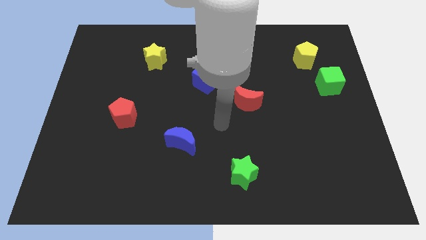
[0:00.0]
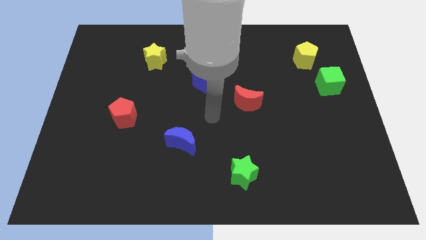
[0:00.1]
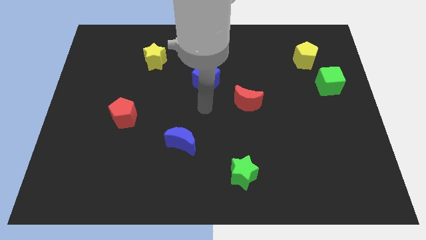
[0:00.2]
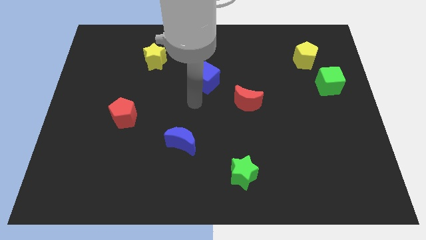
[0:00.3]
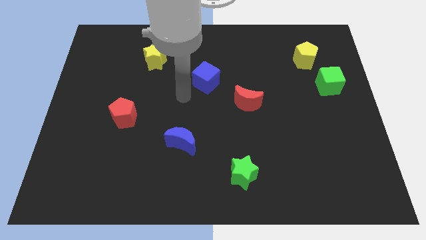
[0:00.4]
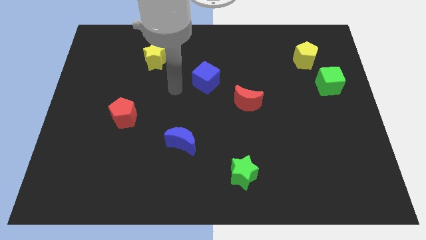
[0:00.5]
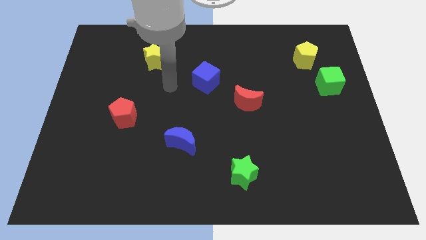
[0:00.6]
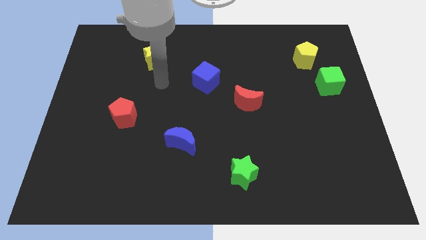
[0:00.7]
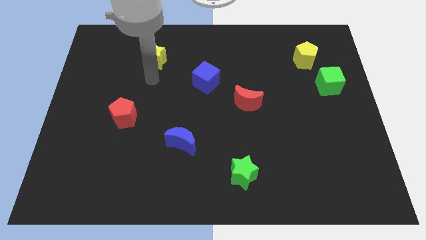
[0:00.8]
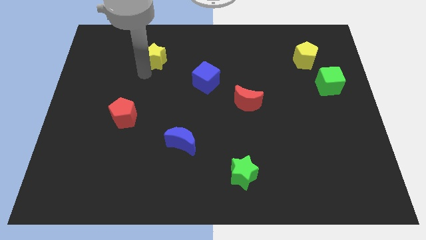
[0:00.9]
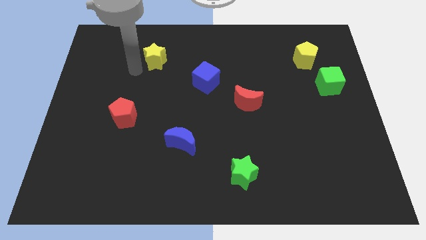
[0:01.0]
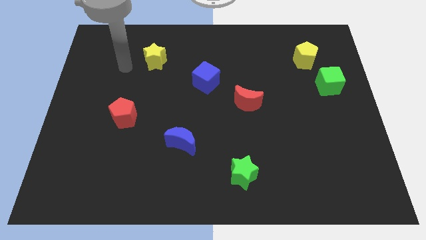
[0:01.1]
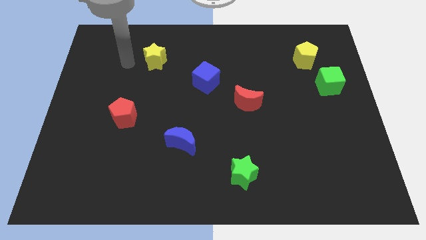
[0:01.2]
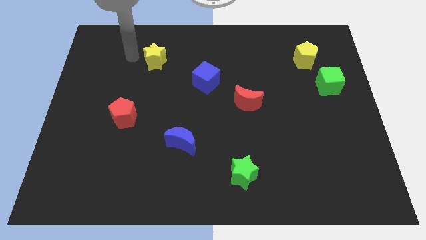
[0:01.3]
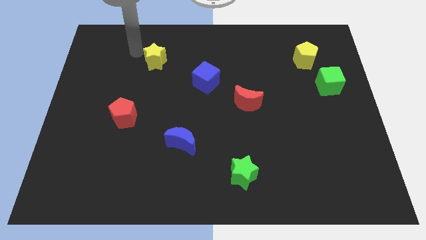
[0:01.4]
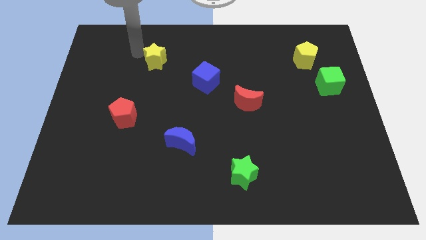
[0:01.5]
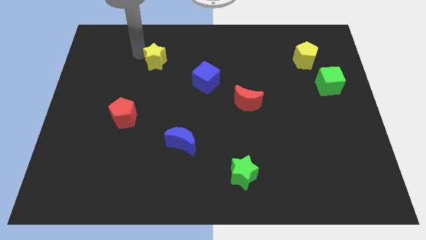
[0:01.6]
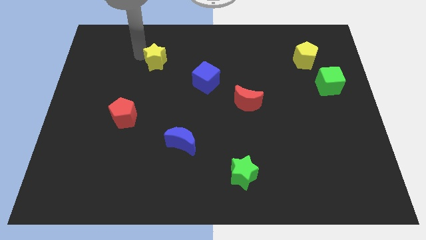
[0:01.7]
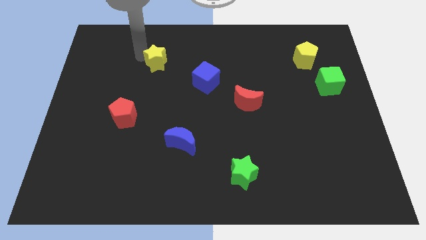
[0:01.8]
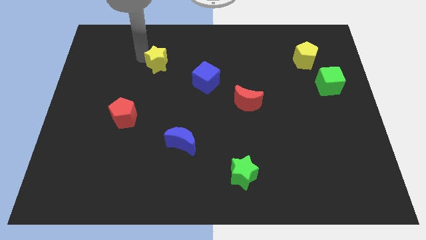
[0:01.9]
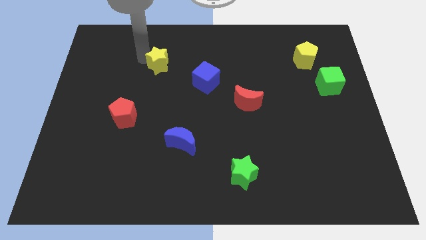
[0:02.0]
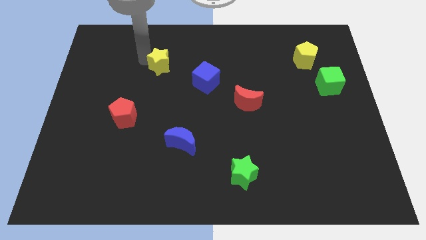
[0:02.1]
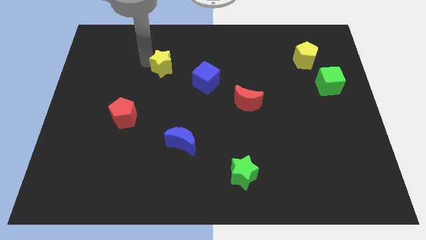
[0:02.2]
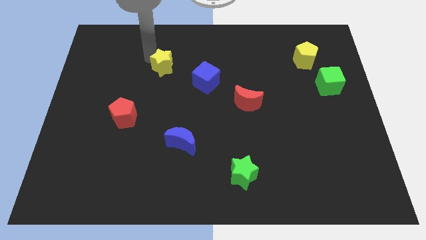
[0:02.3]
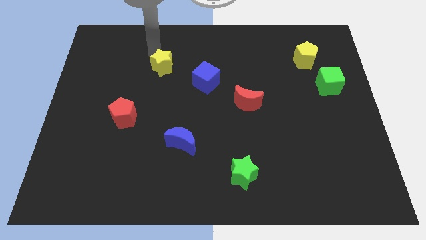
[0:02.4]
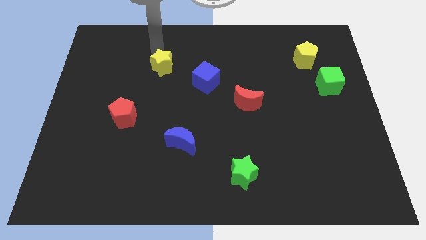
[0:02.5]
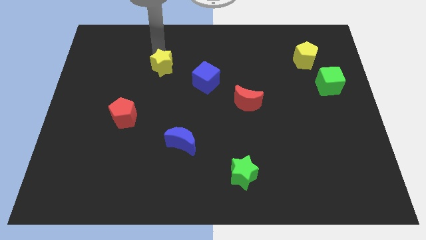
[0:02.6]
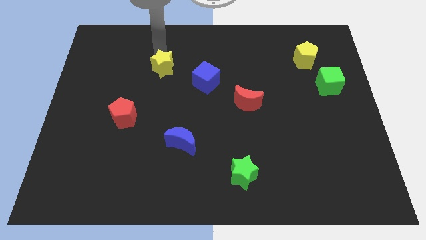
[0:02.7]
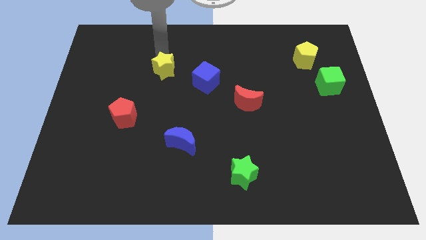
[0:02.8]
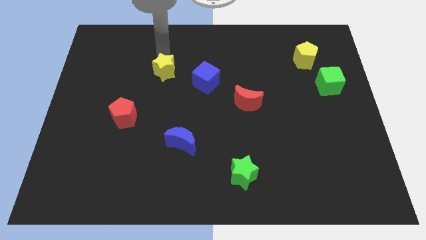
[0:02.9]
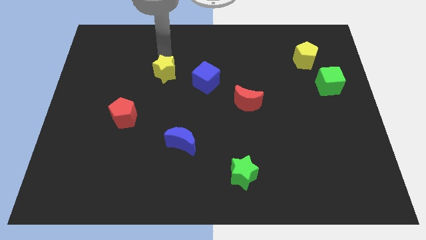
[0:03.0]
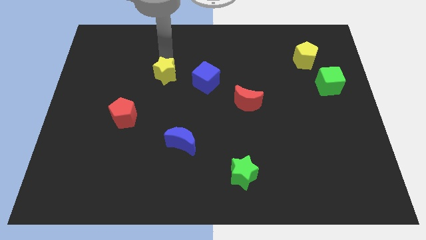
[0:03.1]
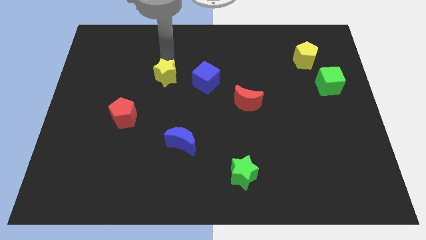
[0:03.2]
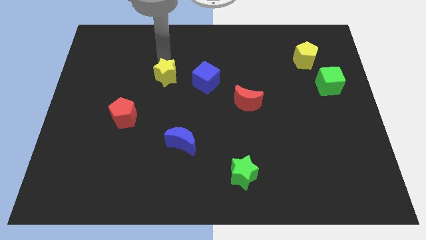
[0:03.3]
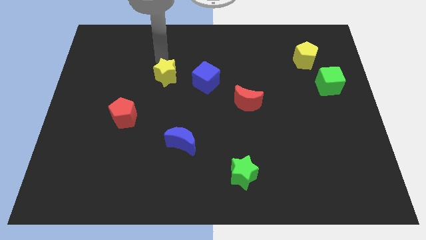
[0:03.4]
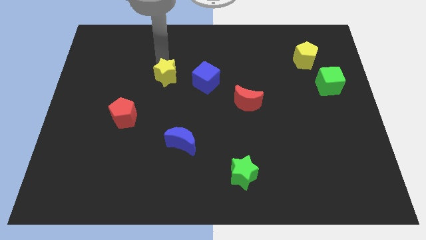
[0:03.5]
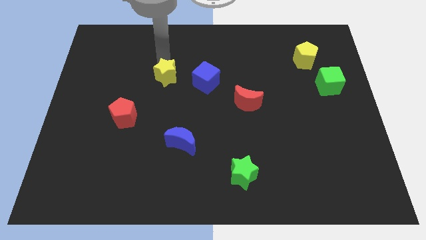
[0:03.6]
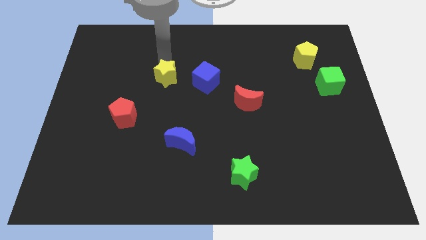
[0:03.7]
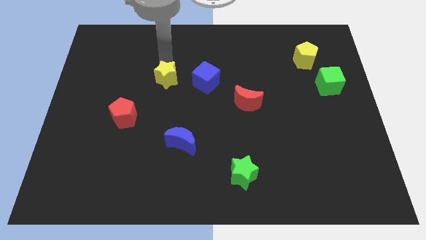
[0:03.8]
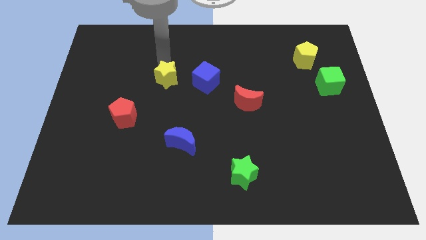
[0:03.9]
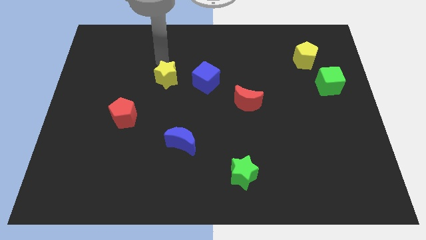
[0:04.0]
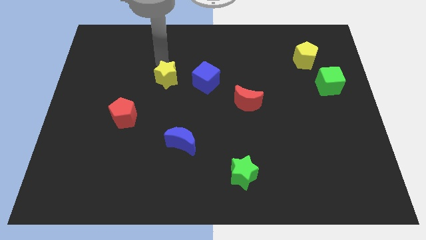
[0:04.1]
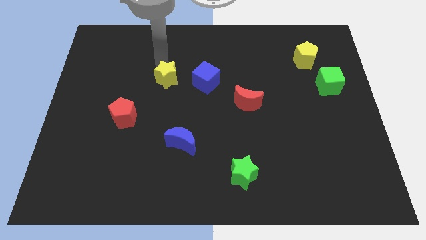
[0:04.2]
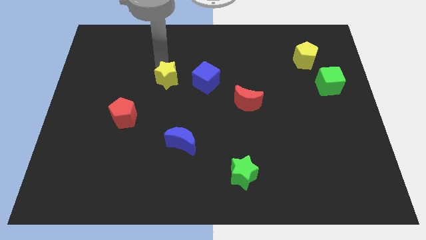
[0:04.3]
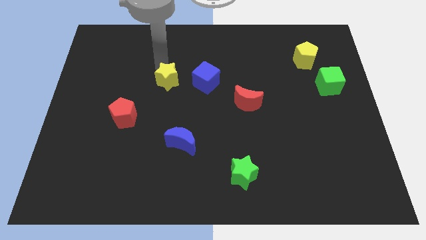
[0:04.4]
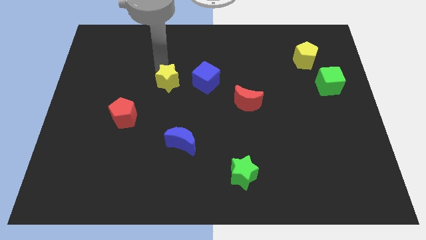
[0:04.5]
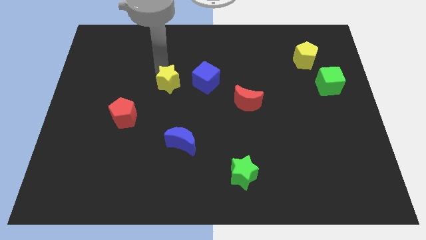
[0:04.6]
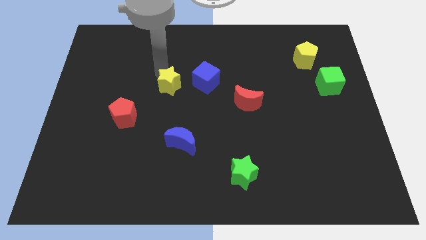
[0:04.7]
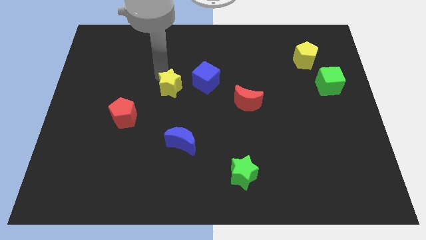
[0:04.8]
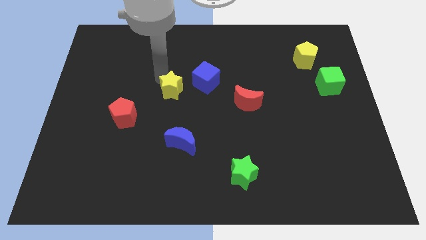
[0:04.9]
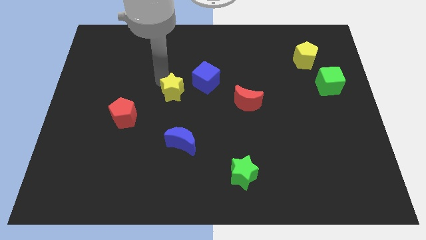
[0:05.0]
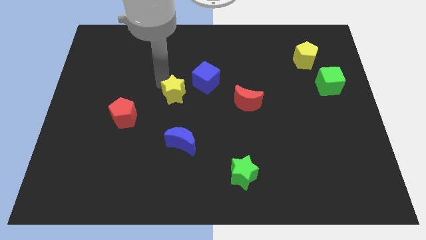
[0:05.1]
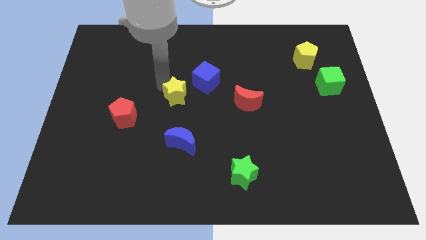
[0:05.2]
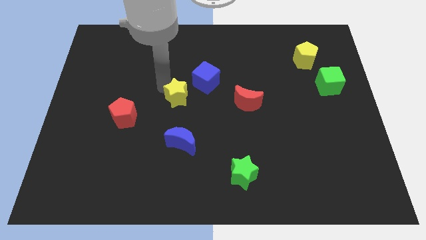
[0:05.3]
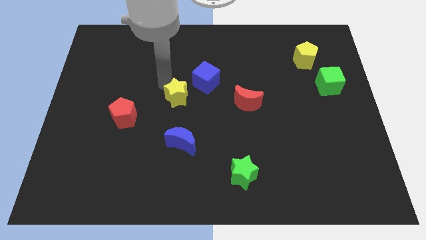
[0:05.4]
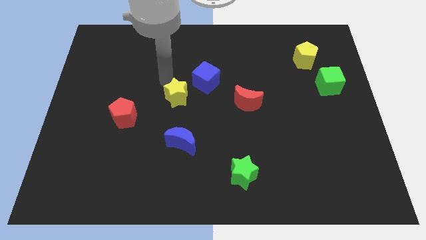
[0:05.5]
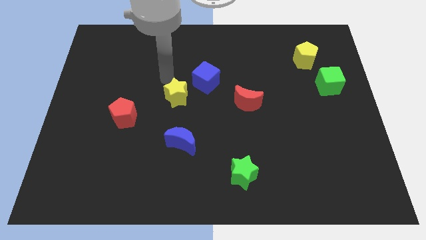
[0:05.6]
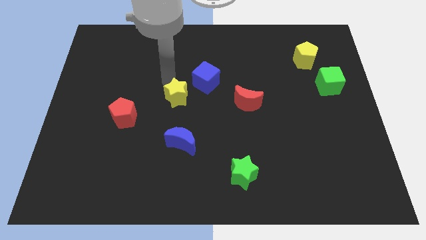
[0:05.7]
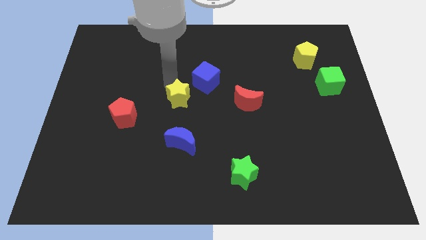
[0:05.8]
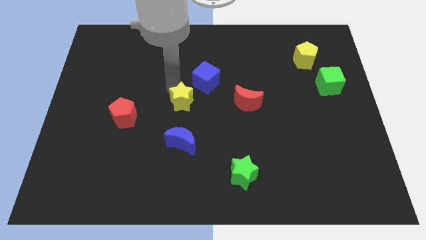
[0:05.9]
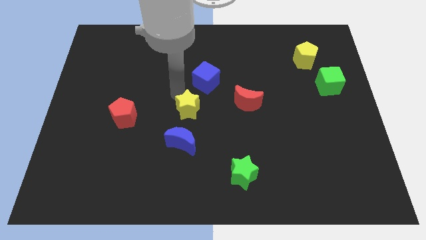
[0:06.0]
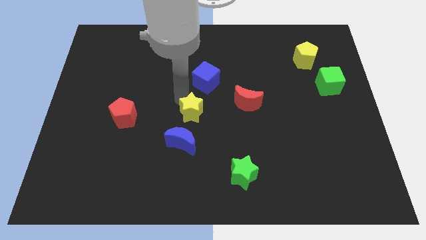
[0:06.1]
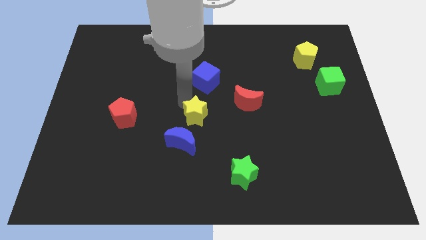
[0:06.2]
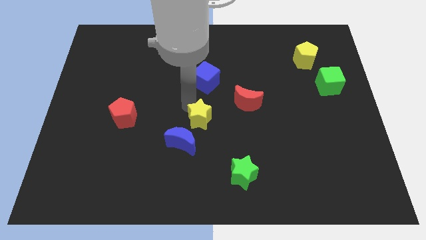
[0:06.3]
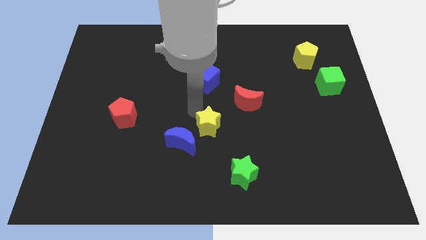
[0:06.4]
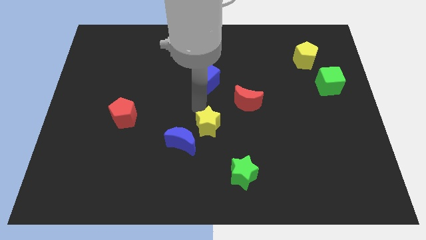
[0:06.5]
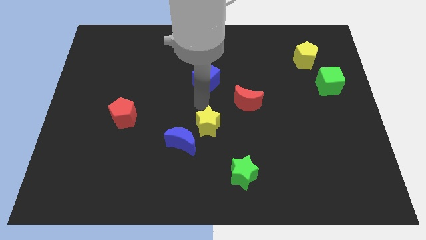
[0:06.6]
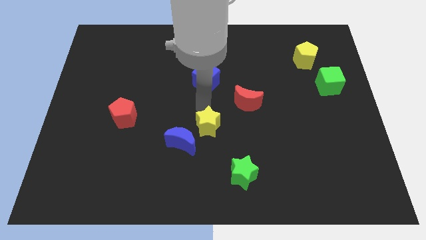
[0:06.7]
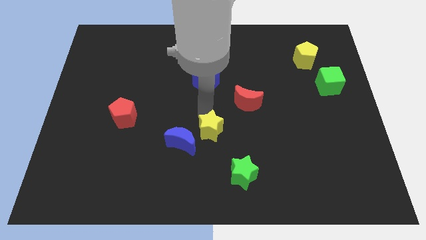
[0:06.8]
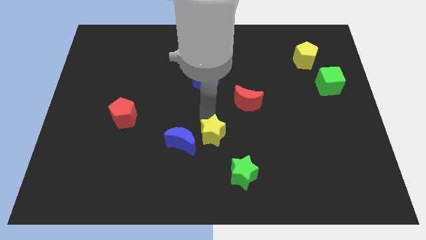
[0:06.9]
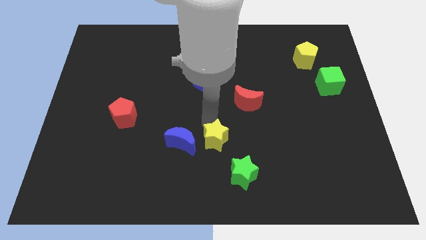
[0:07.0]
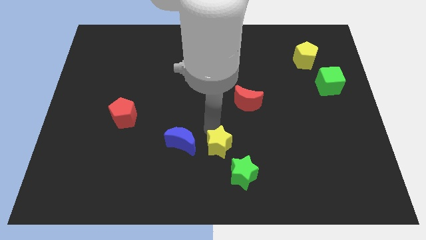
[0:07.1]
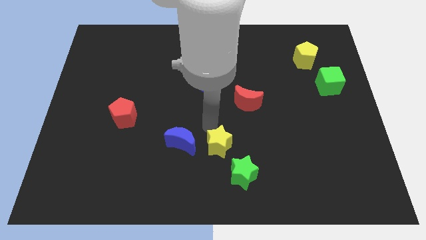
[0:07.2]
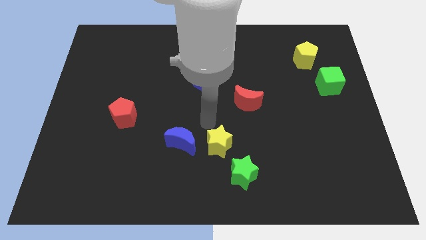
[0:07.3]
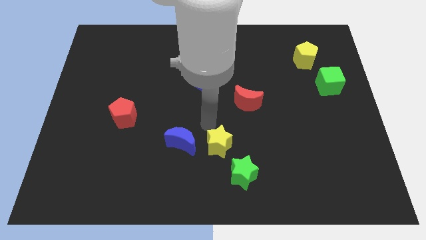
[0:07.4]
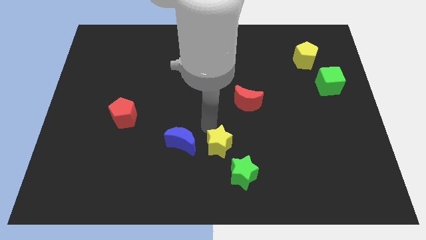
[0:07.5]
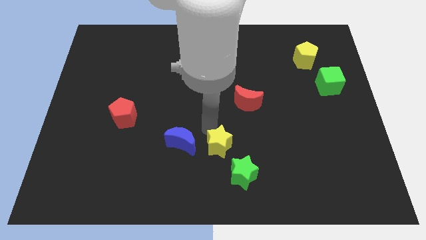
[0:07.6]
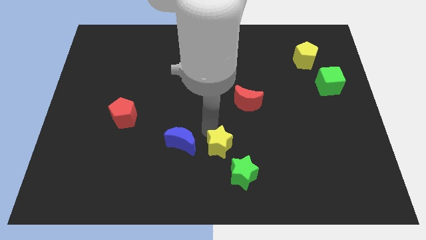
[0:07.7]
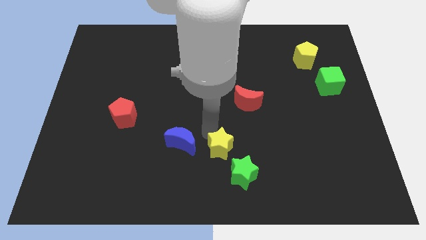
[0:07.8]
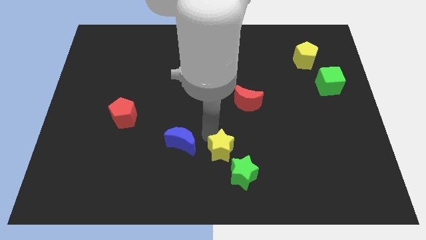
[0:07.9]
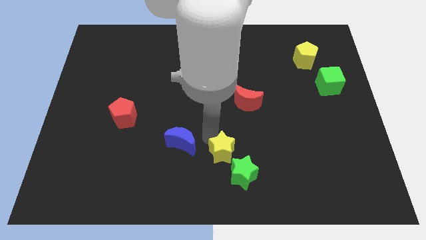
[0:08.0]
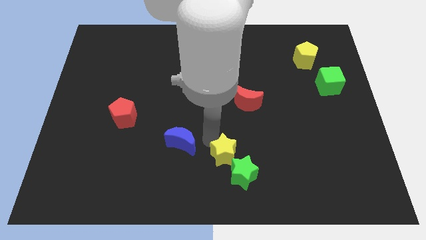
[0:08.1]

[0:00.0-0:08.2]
move the yellow star next to the green star
